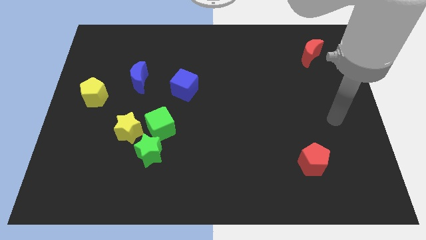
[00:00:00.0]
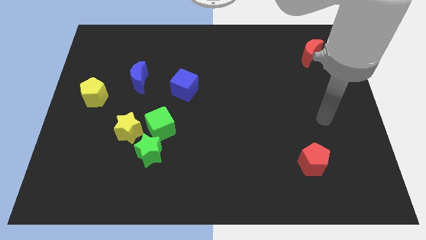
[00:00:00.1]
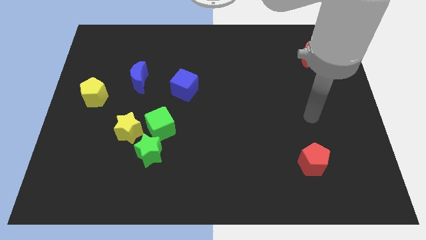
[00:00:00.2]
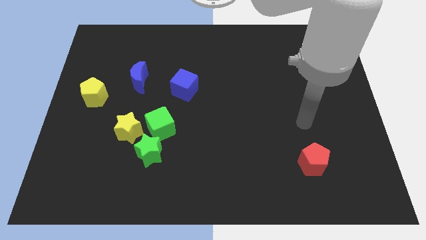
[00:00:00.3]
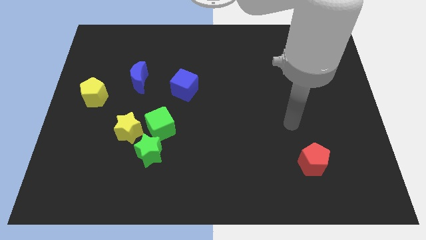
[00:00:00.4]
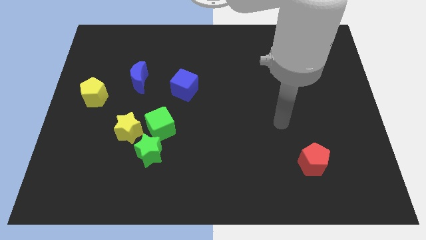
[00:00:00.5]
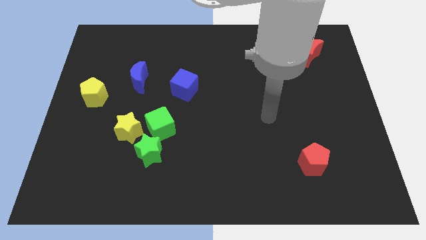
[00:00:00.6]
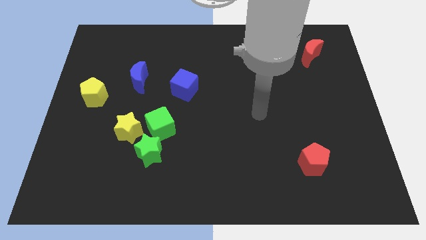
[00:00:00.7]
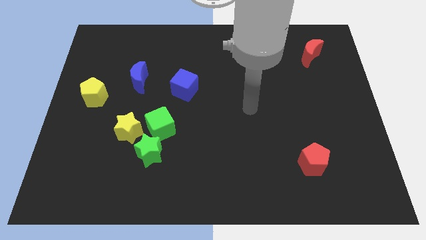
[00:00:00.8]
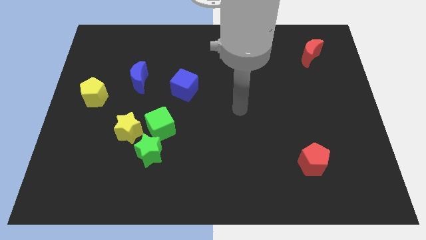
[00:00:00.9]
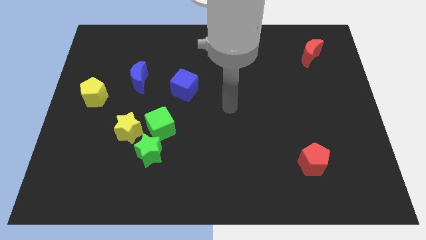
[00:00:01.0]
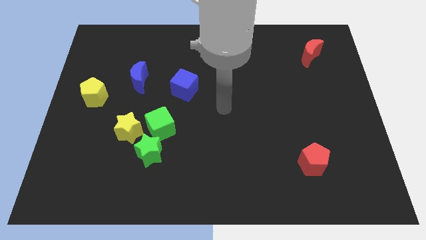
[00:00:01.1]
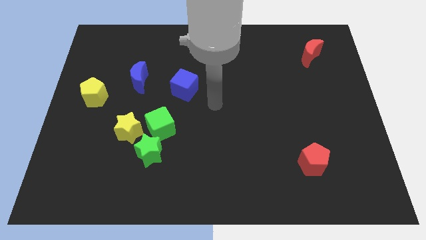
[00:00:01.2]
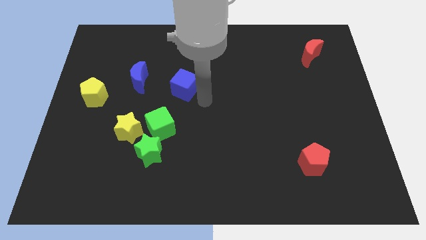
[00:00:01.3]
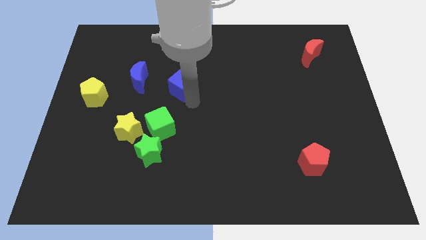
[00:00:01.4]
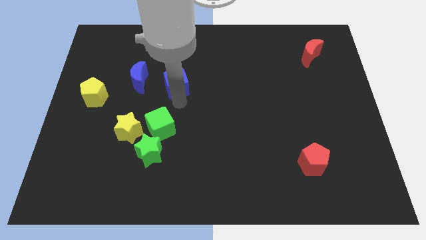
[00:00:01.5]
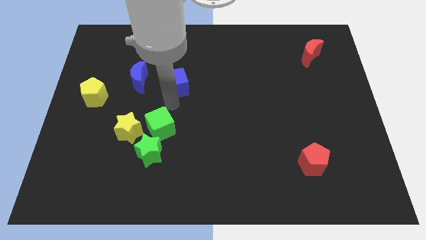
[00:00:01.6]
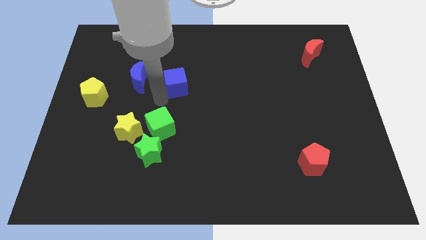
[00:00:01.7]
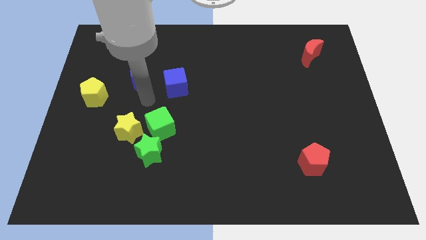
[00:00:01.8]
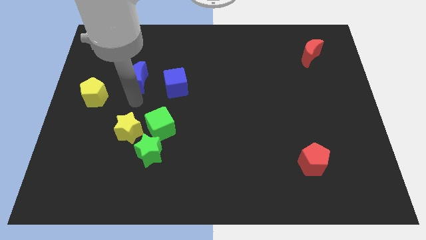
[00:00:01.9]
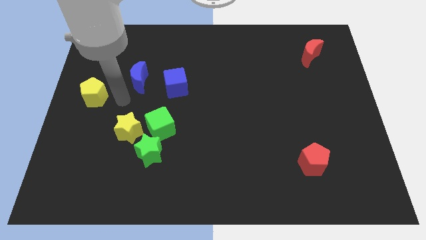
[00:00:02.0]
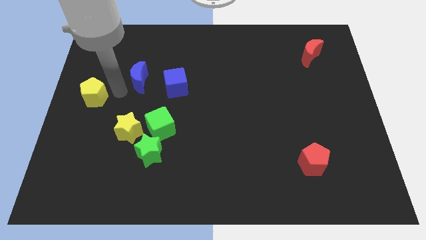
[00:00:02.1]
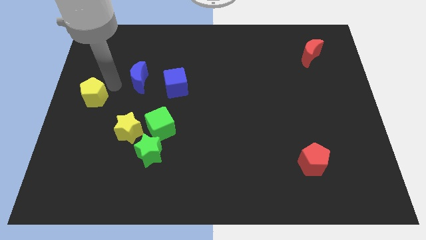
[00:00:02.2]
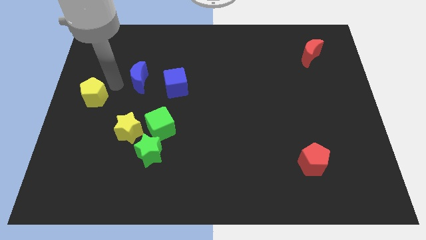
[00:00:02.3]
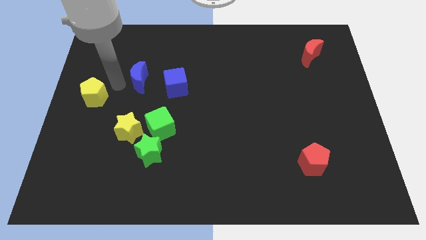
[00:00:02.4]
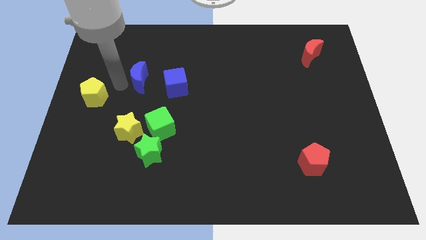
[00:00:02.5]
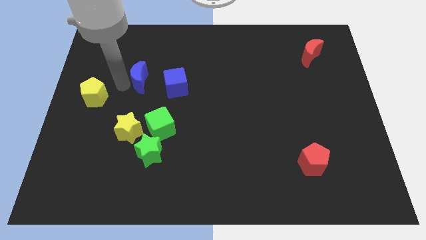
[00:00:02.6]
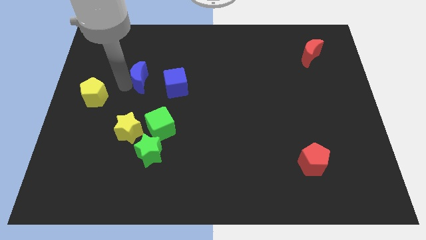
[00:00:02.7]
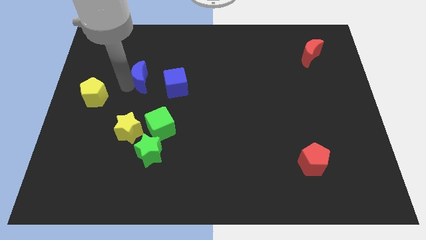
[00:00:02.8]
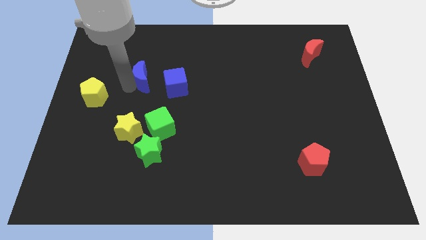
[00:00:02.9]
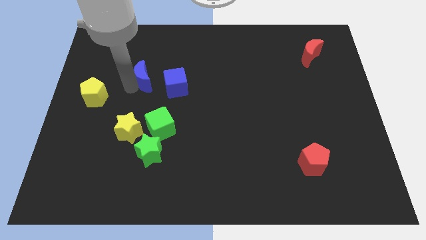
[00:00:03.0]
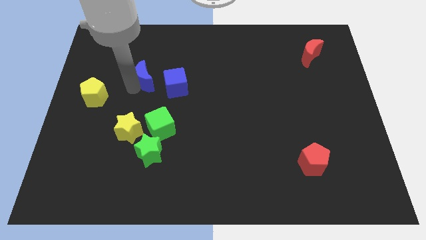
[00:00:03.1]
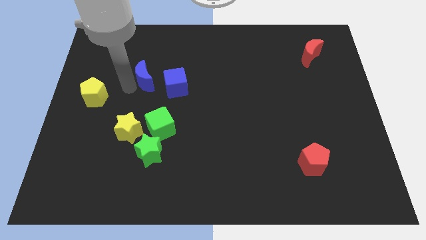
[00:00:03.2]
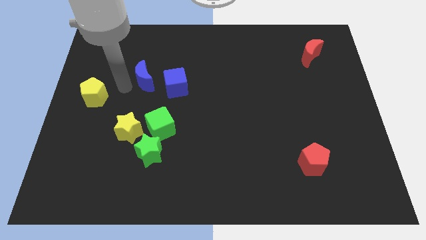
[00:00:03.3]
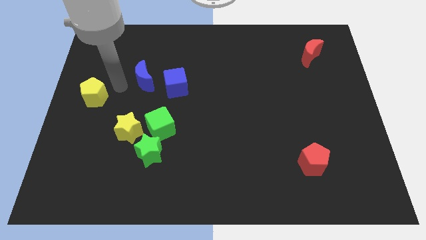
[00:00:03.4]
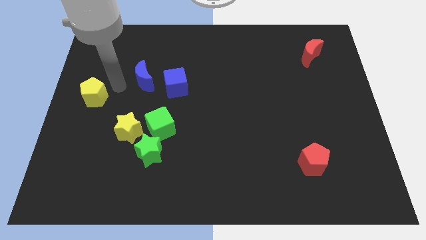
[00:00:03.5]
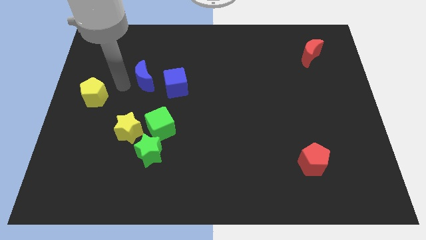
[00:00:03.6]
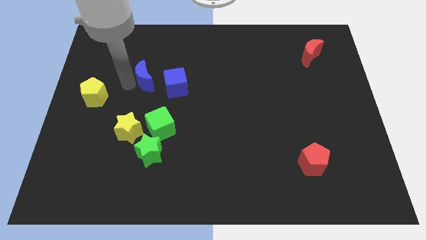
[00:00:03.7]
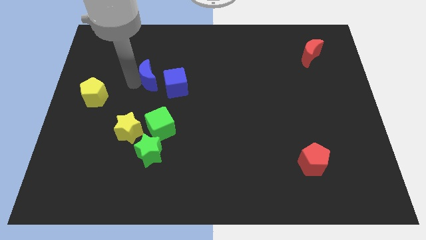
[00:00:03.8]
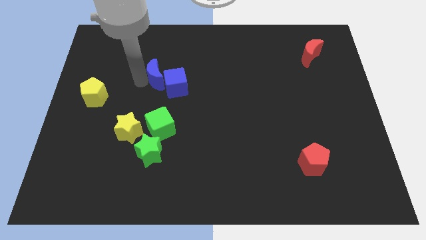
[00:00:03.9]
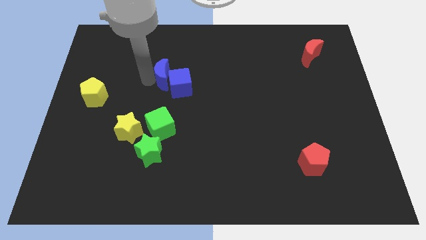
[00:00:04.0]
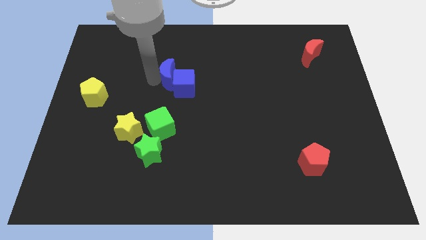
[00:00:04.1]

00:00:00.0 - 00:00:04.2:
slide the blue moon somewhat right

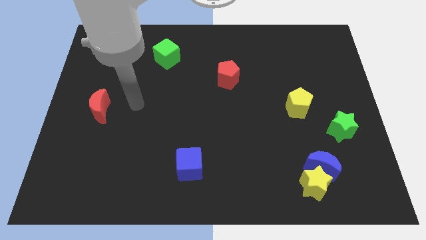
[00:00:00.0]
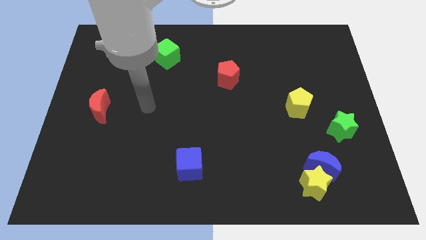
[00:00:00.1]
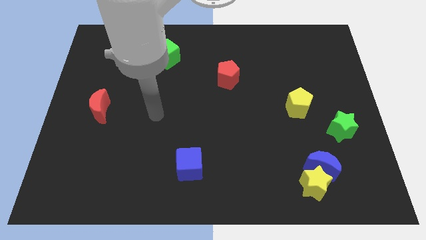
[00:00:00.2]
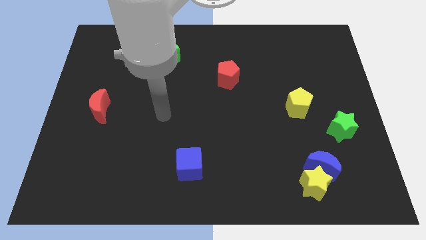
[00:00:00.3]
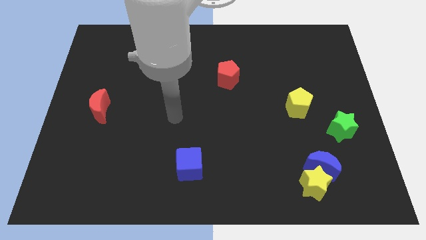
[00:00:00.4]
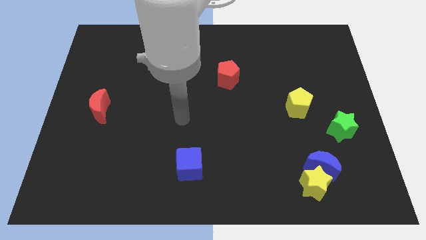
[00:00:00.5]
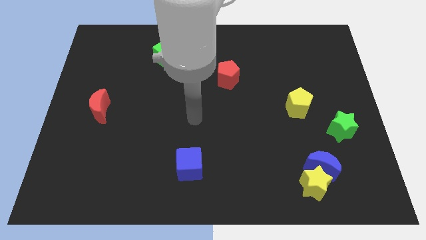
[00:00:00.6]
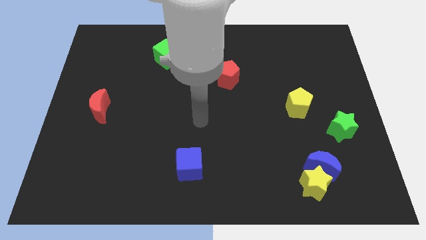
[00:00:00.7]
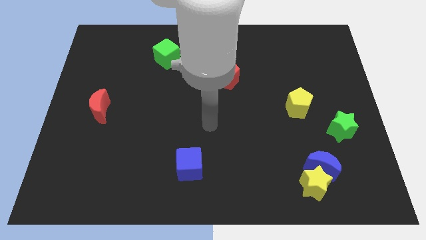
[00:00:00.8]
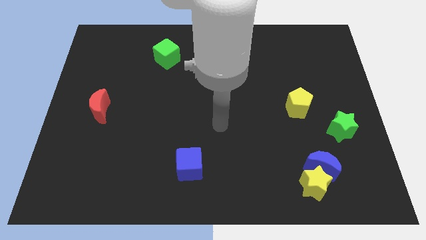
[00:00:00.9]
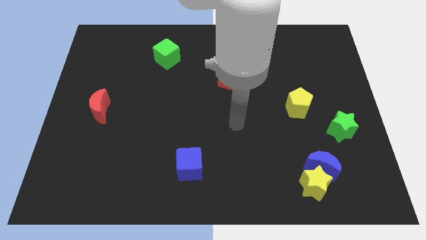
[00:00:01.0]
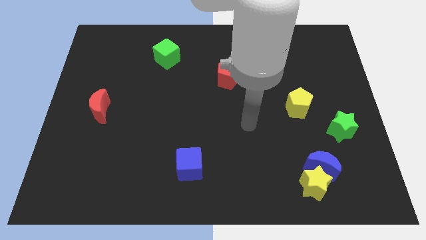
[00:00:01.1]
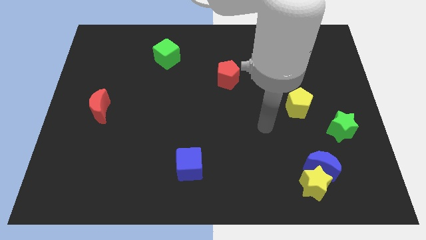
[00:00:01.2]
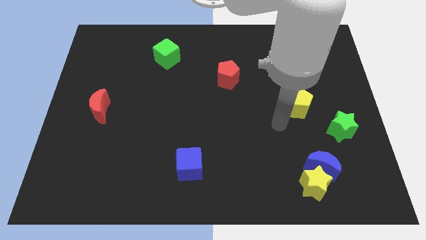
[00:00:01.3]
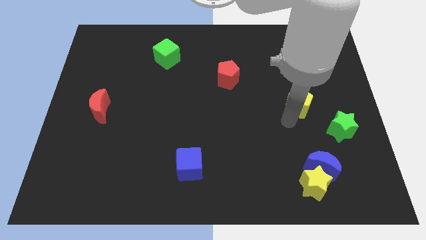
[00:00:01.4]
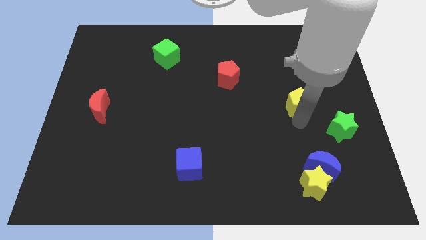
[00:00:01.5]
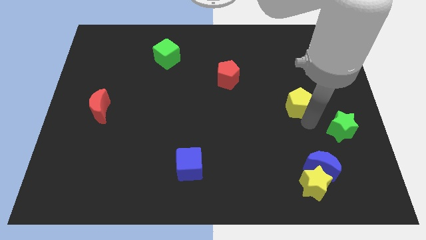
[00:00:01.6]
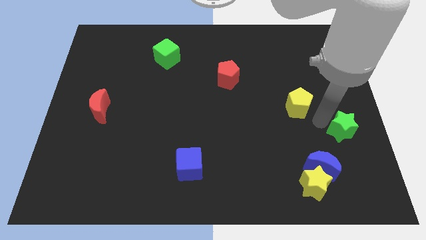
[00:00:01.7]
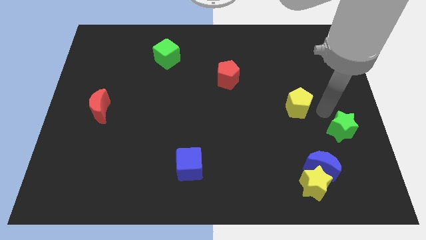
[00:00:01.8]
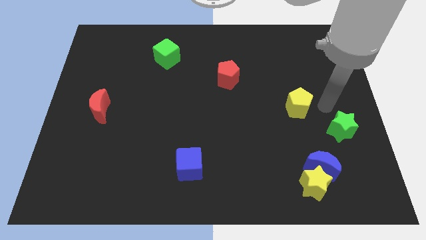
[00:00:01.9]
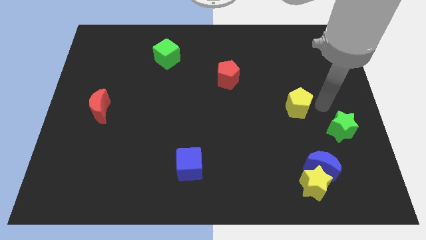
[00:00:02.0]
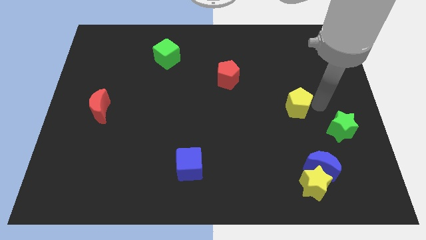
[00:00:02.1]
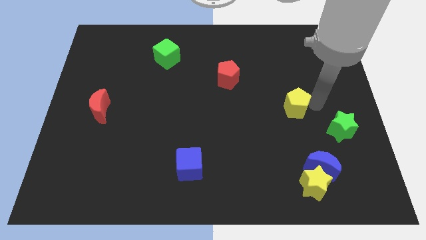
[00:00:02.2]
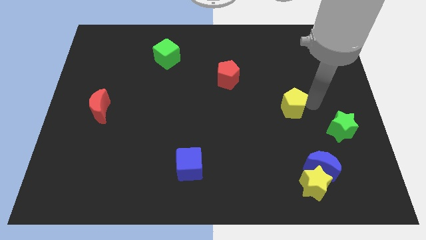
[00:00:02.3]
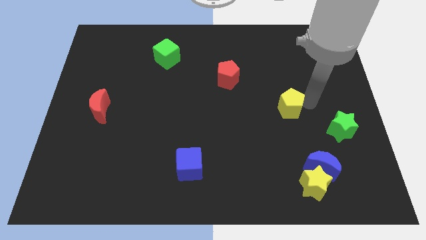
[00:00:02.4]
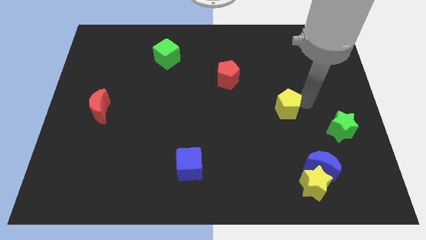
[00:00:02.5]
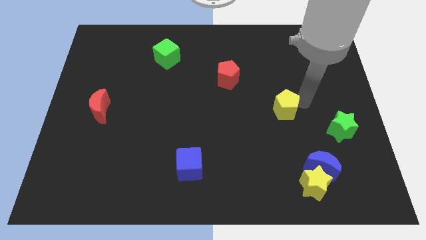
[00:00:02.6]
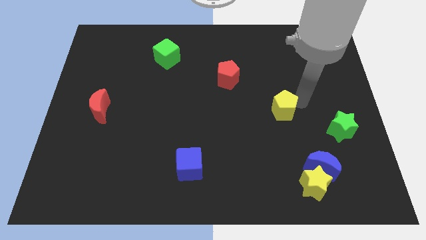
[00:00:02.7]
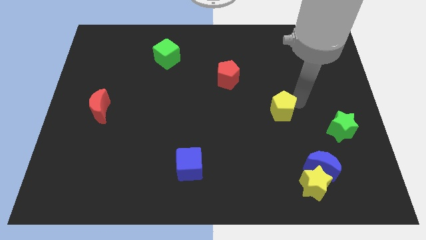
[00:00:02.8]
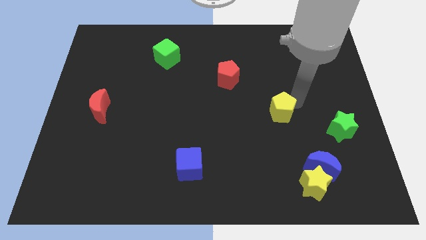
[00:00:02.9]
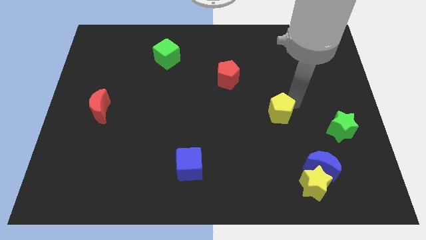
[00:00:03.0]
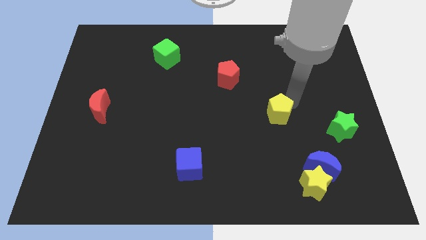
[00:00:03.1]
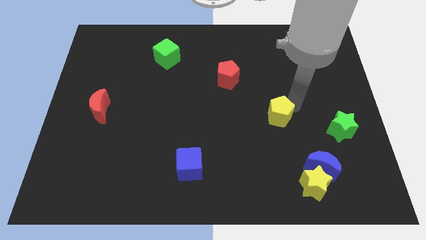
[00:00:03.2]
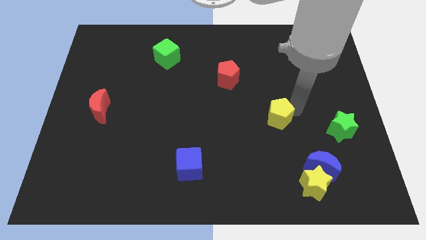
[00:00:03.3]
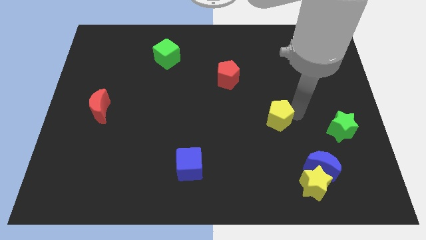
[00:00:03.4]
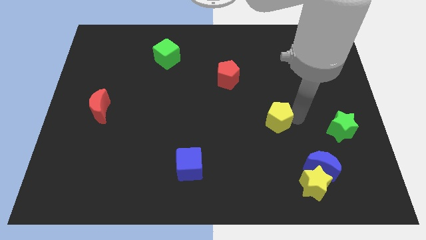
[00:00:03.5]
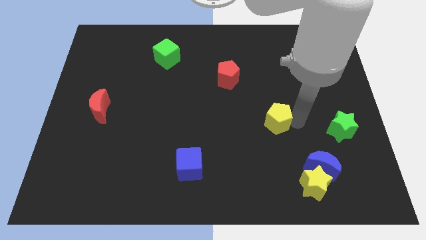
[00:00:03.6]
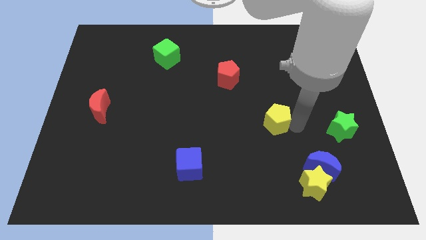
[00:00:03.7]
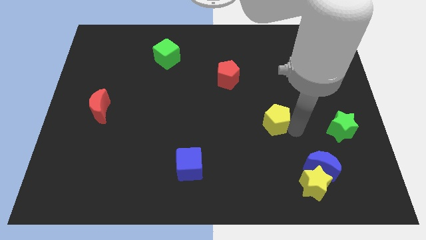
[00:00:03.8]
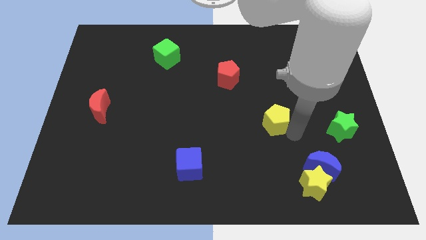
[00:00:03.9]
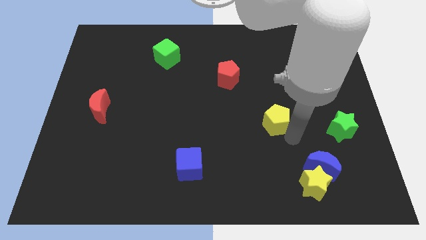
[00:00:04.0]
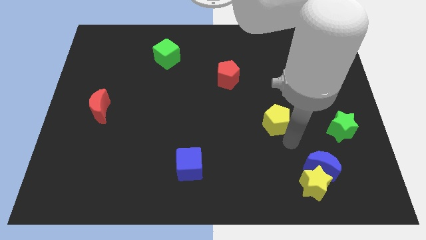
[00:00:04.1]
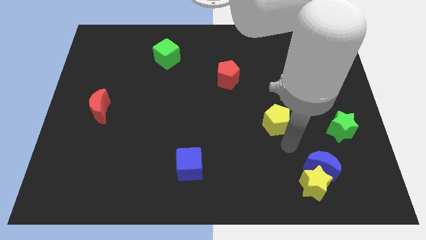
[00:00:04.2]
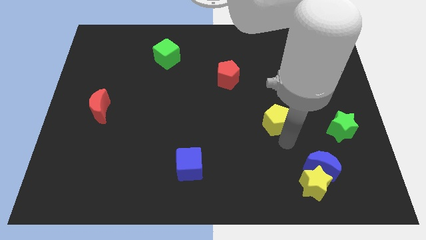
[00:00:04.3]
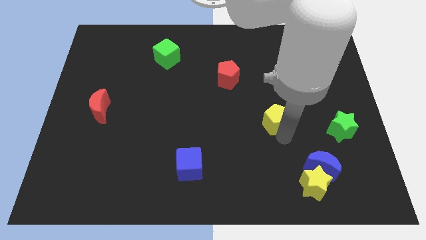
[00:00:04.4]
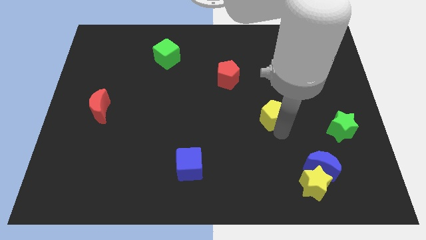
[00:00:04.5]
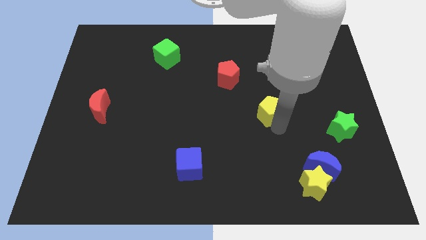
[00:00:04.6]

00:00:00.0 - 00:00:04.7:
slightly push the yellow pentagon left
